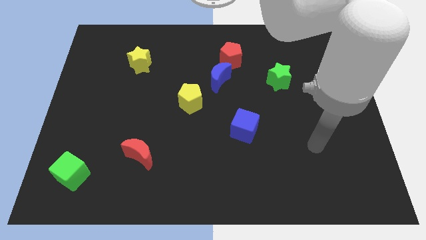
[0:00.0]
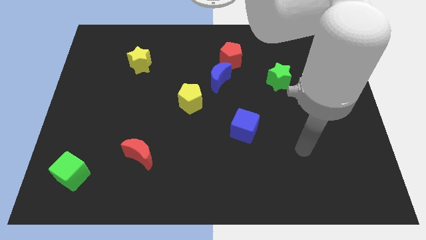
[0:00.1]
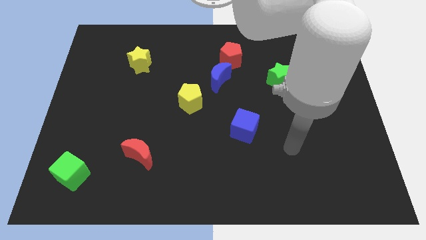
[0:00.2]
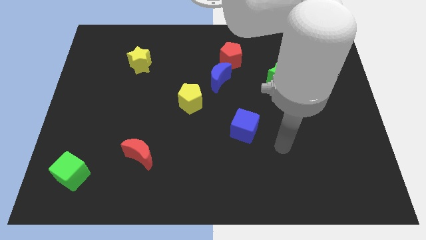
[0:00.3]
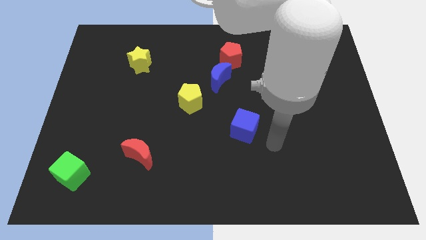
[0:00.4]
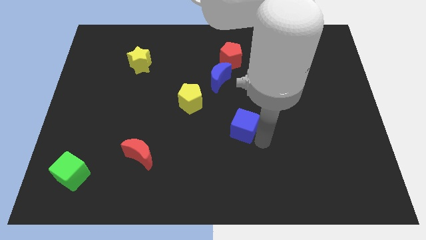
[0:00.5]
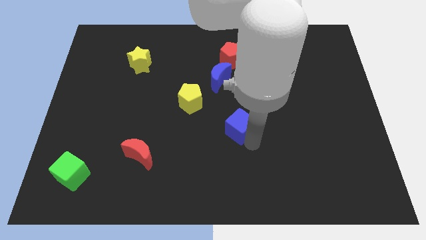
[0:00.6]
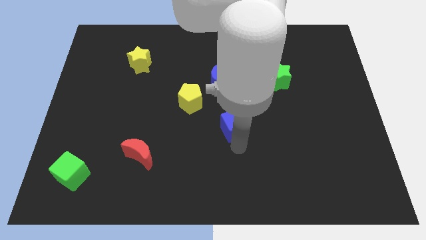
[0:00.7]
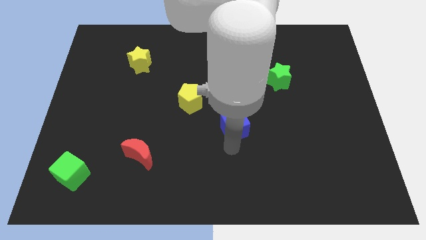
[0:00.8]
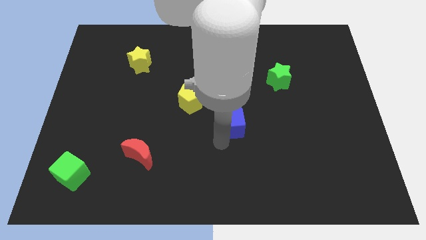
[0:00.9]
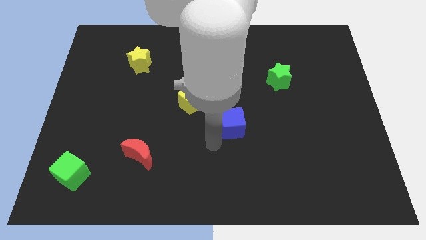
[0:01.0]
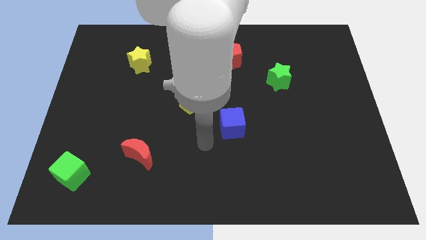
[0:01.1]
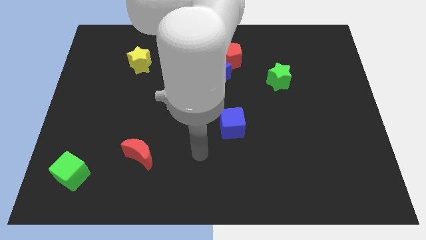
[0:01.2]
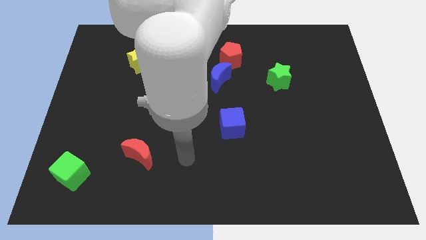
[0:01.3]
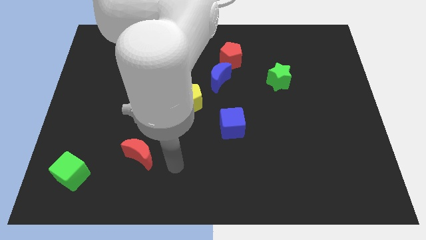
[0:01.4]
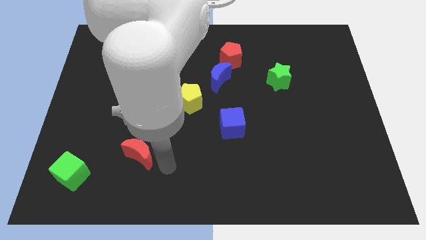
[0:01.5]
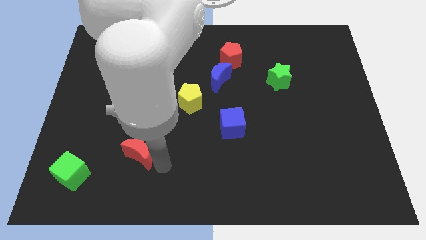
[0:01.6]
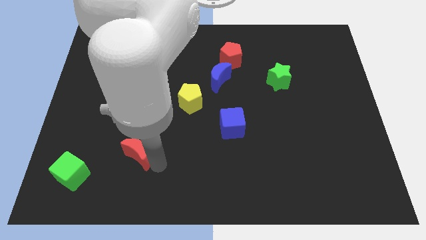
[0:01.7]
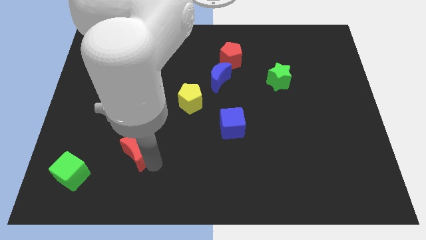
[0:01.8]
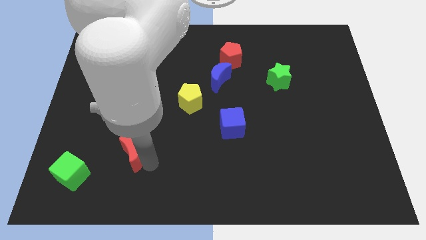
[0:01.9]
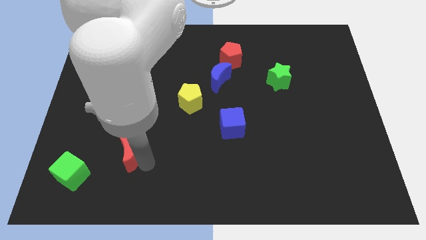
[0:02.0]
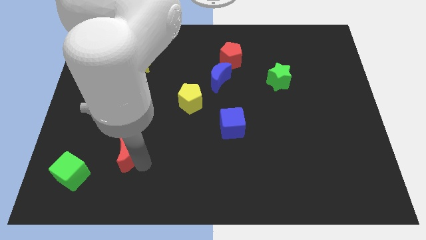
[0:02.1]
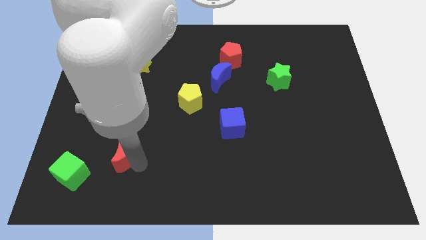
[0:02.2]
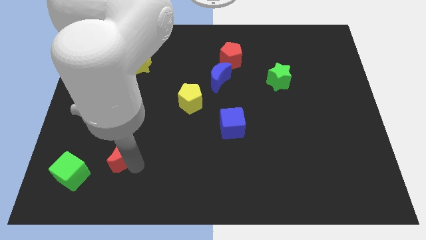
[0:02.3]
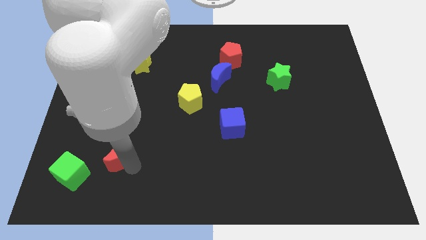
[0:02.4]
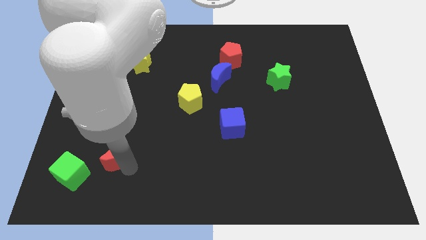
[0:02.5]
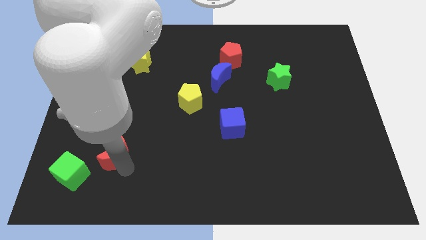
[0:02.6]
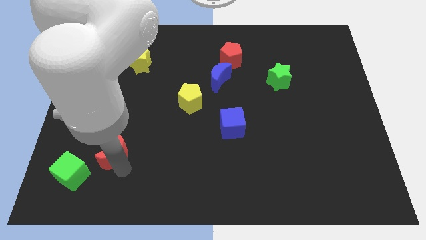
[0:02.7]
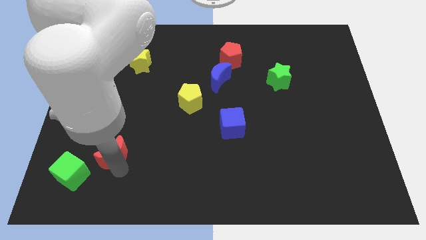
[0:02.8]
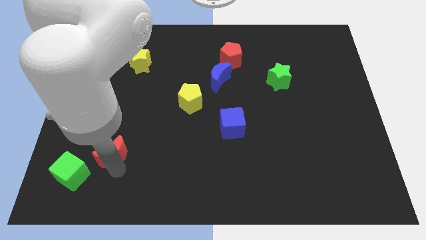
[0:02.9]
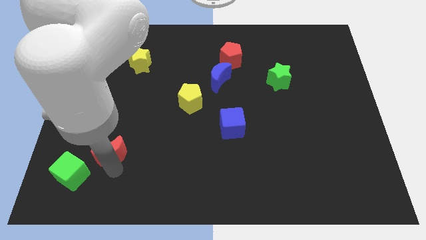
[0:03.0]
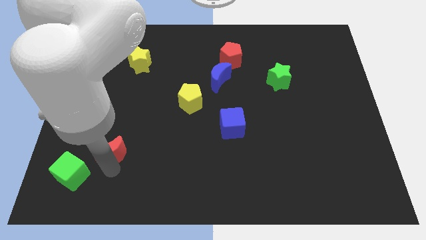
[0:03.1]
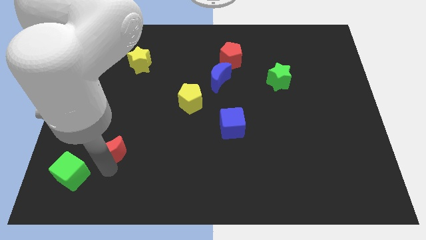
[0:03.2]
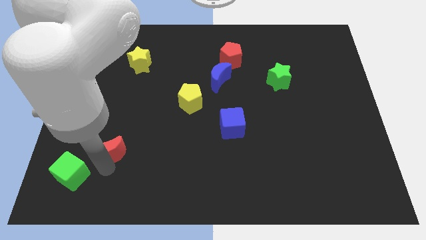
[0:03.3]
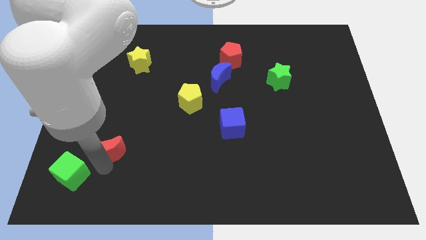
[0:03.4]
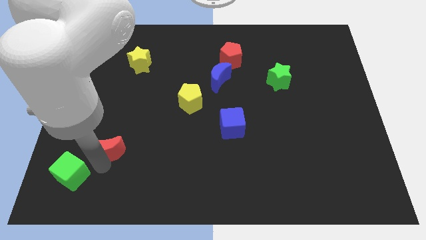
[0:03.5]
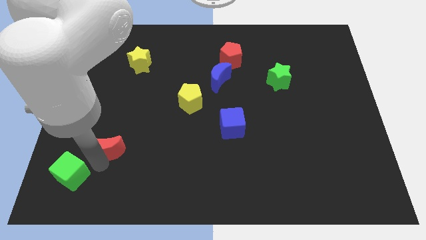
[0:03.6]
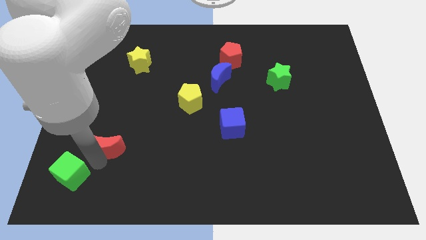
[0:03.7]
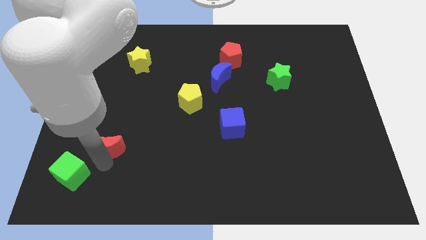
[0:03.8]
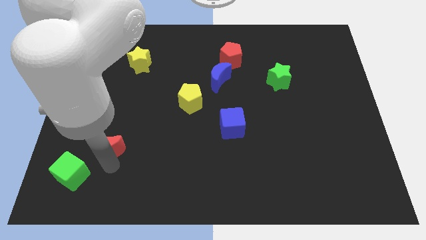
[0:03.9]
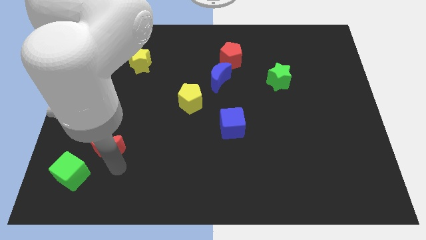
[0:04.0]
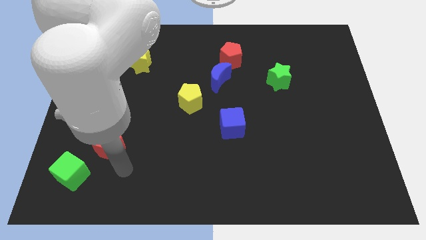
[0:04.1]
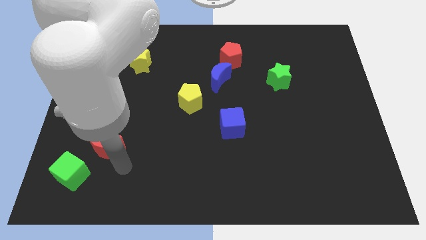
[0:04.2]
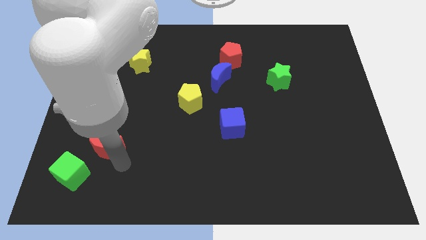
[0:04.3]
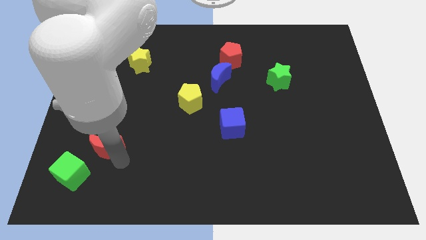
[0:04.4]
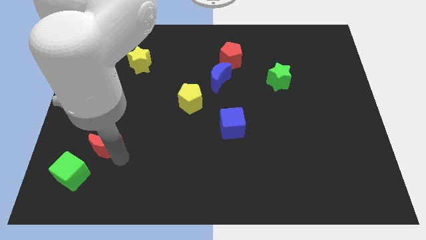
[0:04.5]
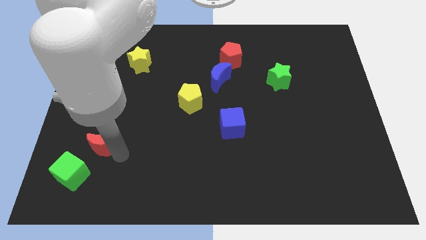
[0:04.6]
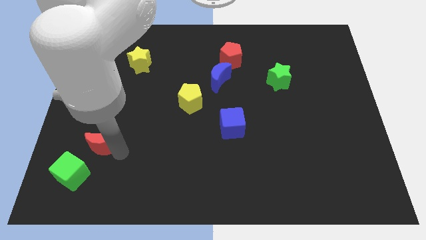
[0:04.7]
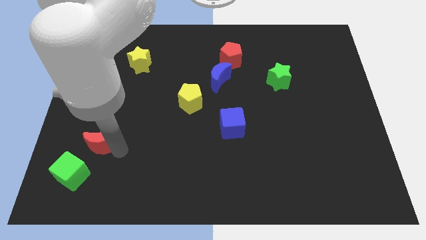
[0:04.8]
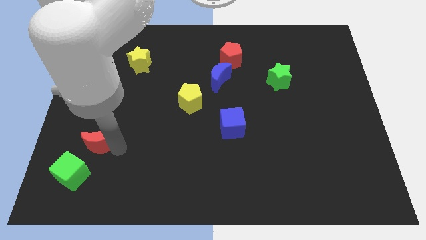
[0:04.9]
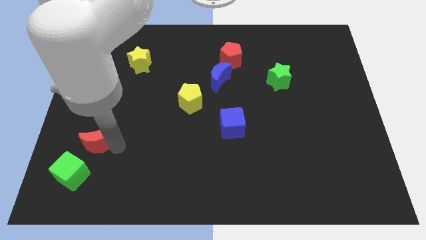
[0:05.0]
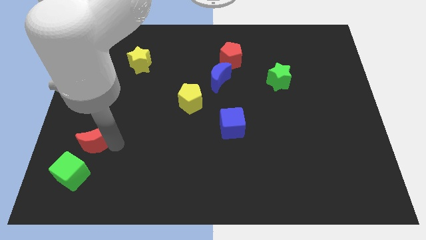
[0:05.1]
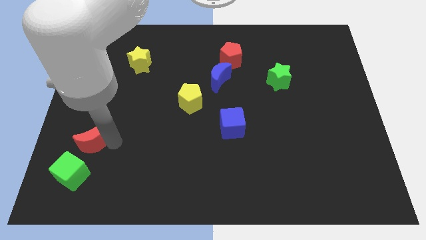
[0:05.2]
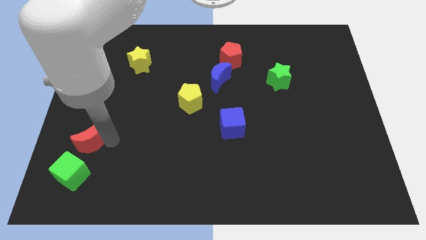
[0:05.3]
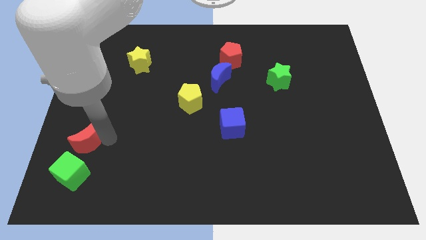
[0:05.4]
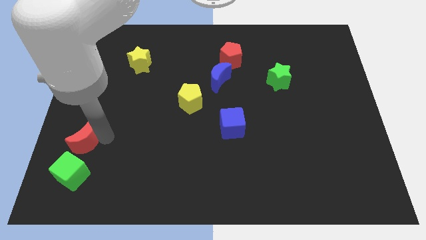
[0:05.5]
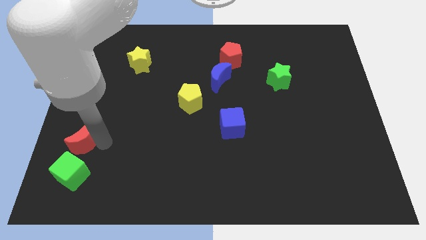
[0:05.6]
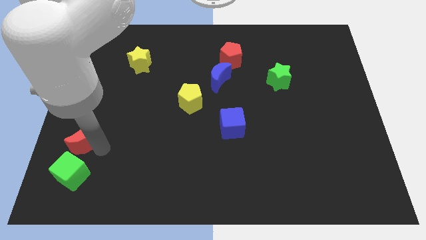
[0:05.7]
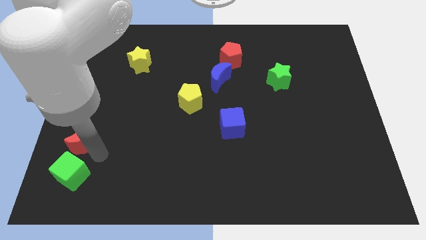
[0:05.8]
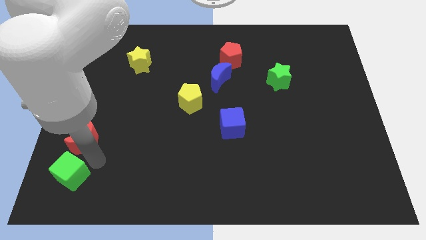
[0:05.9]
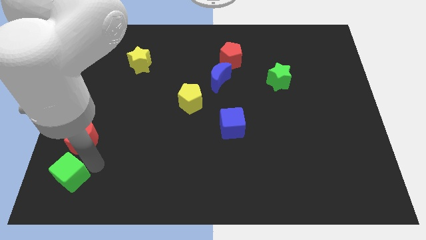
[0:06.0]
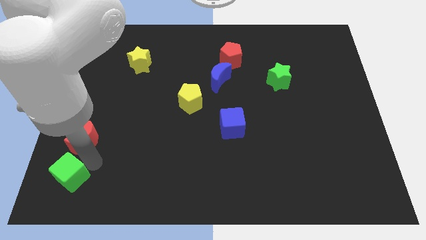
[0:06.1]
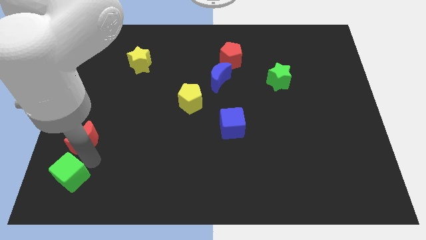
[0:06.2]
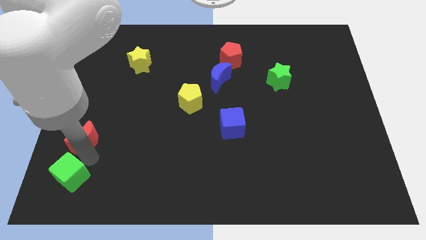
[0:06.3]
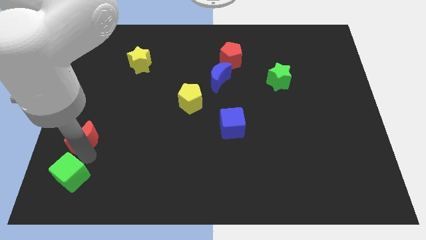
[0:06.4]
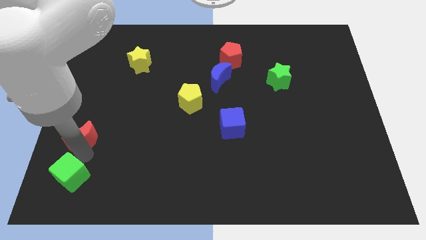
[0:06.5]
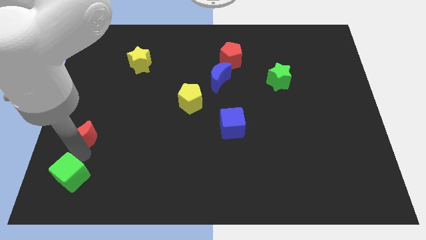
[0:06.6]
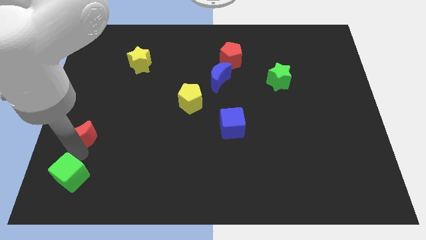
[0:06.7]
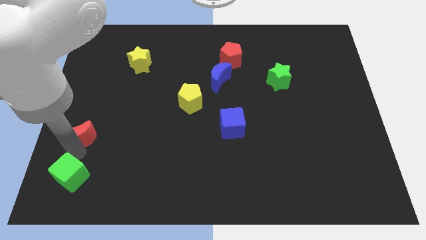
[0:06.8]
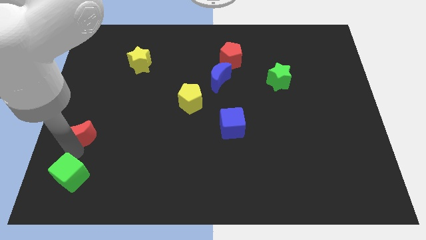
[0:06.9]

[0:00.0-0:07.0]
slide the red moon to the left side of the board
